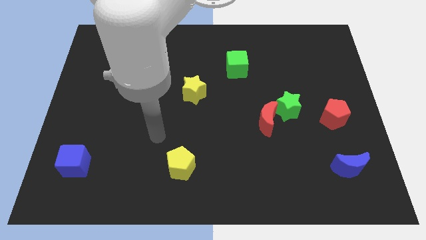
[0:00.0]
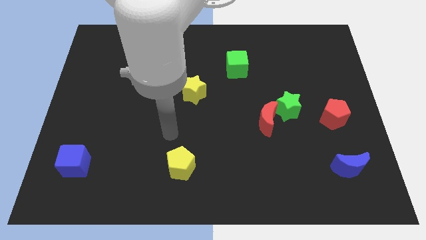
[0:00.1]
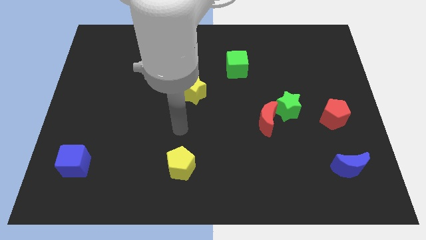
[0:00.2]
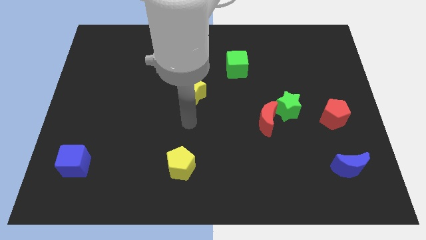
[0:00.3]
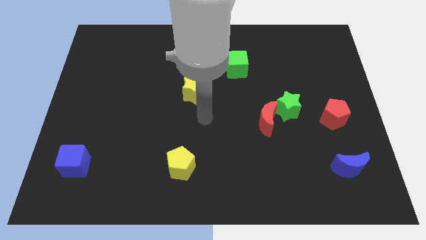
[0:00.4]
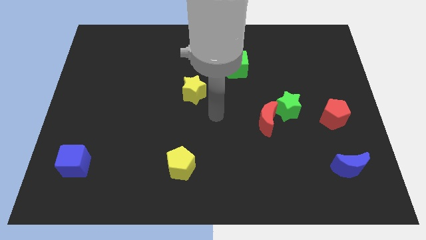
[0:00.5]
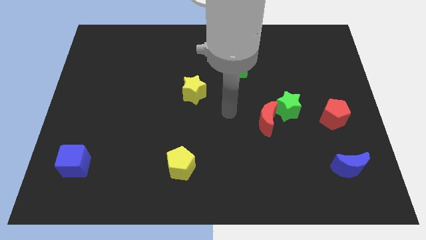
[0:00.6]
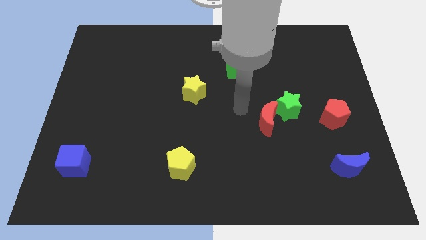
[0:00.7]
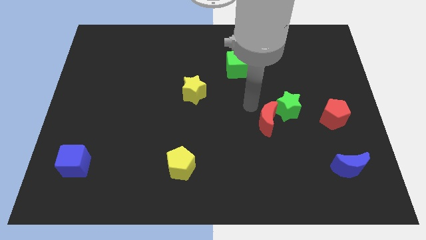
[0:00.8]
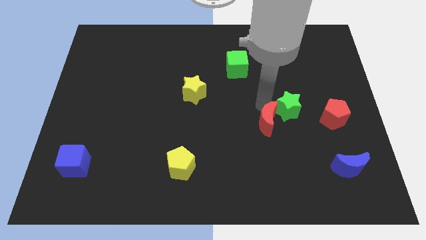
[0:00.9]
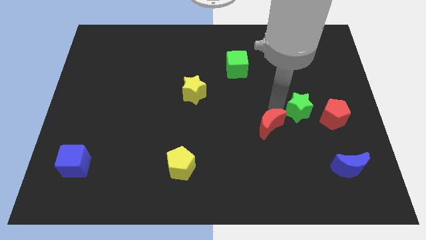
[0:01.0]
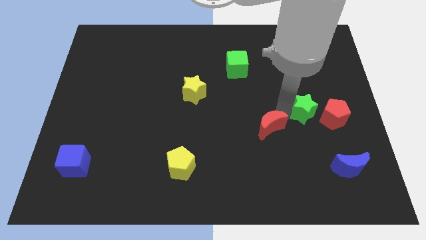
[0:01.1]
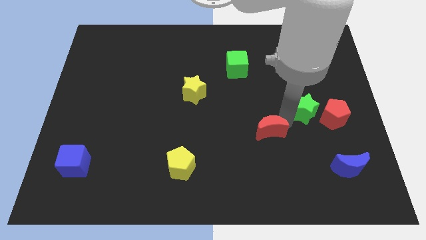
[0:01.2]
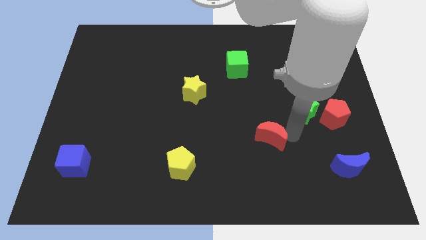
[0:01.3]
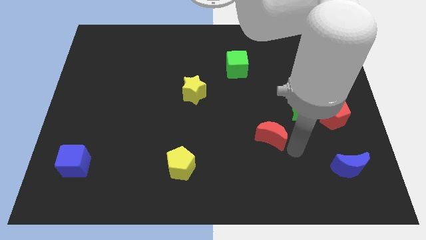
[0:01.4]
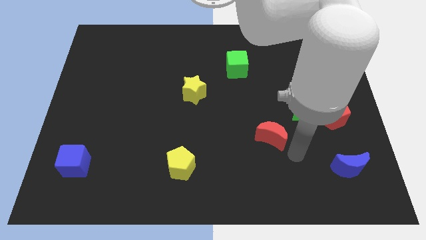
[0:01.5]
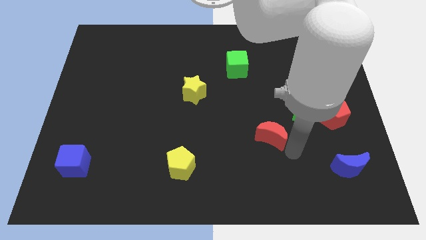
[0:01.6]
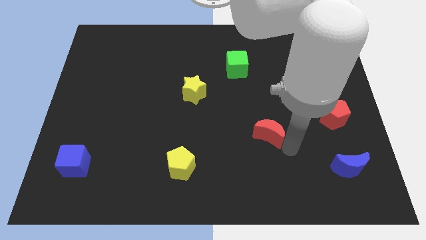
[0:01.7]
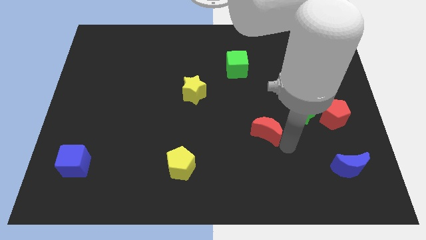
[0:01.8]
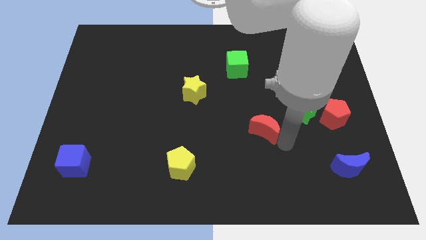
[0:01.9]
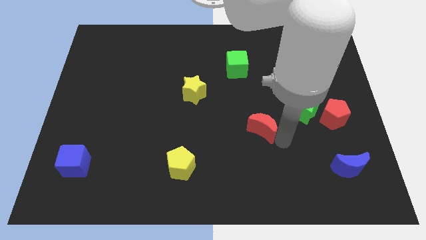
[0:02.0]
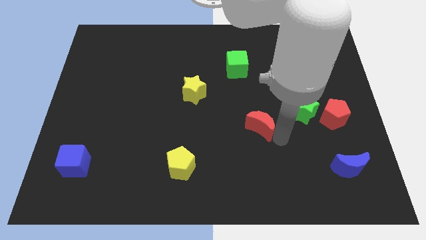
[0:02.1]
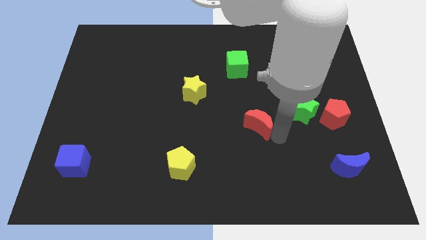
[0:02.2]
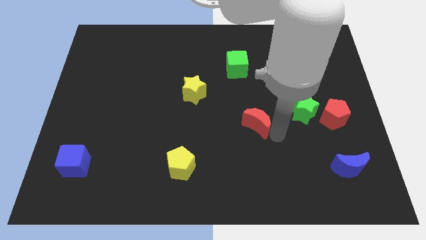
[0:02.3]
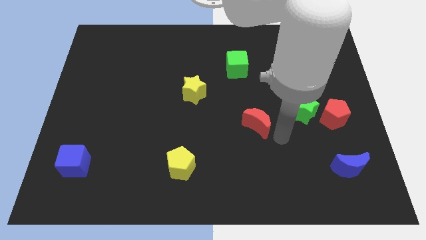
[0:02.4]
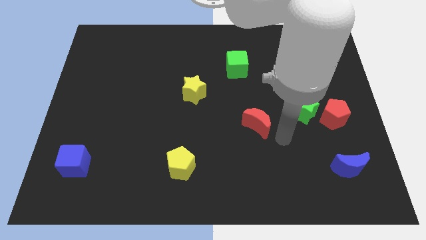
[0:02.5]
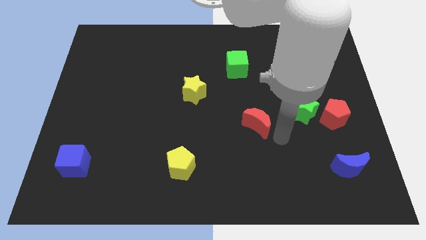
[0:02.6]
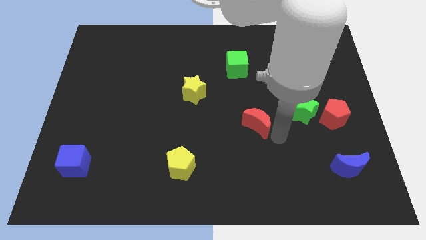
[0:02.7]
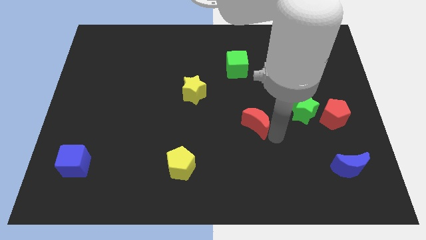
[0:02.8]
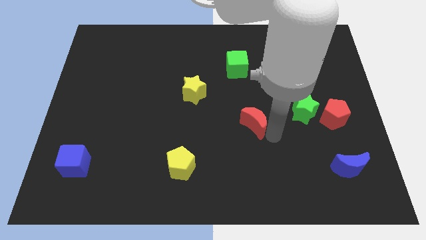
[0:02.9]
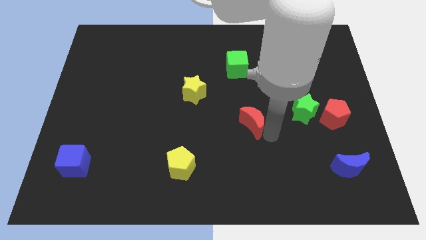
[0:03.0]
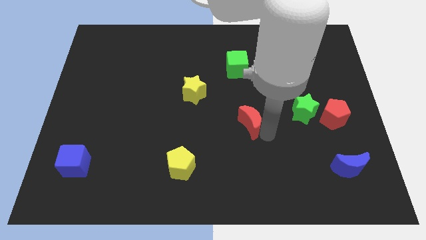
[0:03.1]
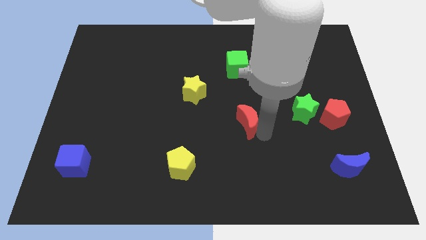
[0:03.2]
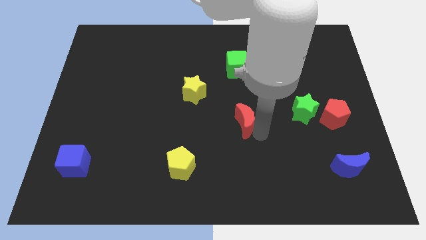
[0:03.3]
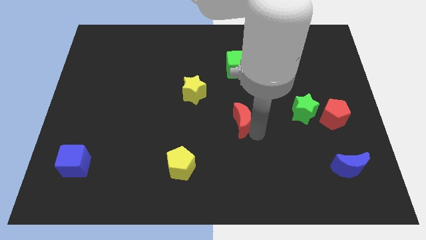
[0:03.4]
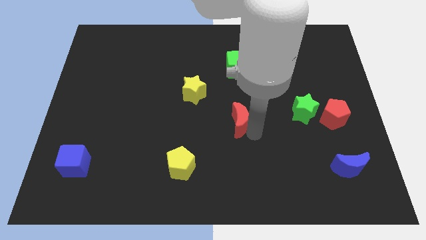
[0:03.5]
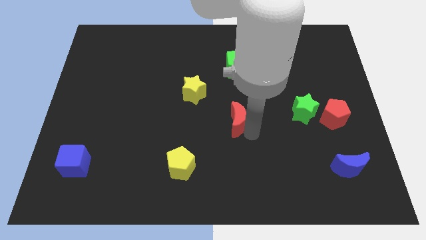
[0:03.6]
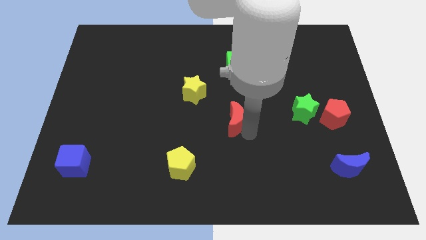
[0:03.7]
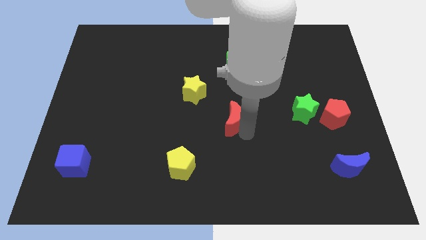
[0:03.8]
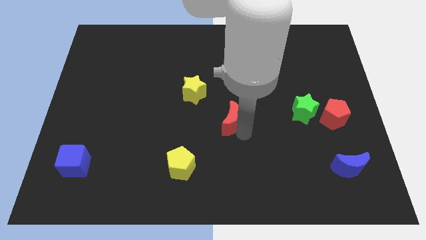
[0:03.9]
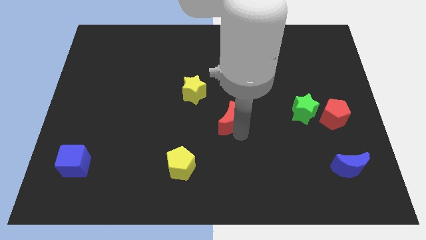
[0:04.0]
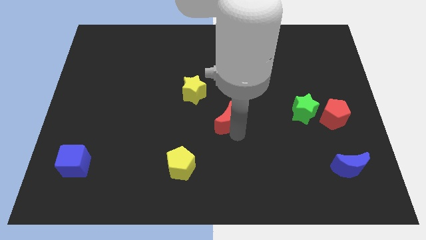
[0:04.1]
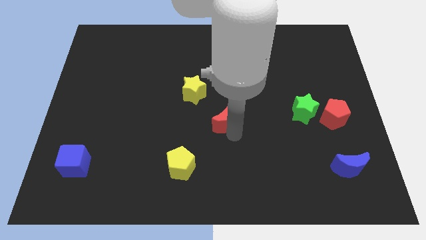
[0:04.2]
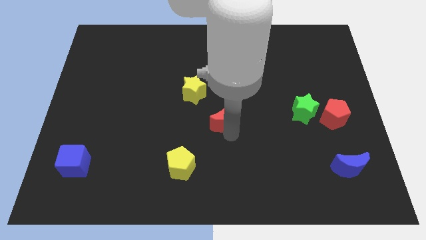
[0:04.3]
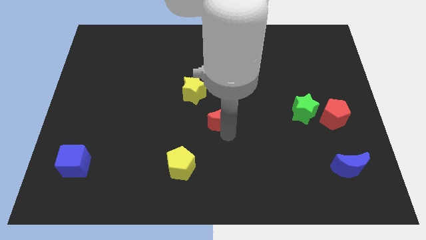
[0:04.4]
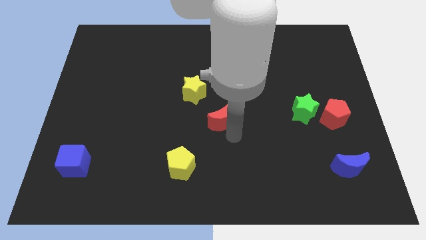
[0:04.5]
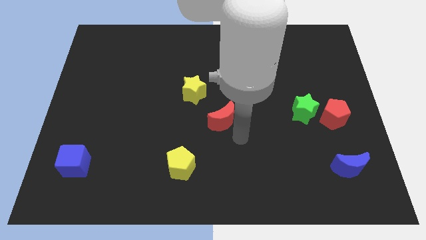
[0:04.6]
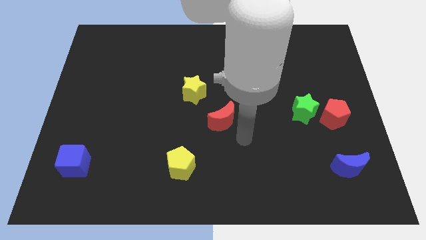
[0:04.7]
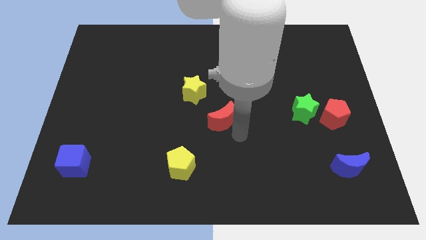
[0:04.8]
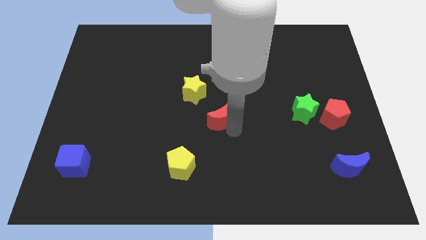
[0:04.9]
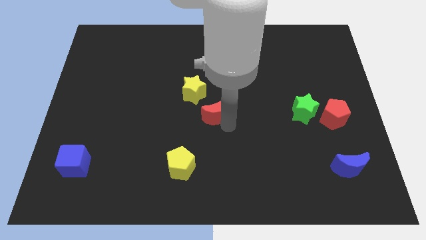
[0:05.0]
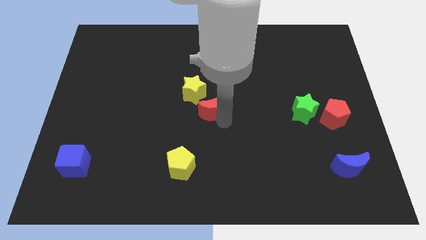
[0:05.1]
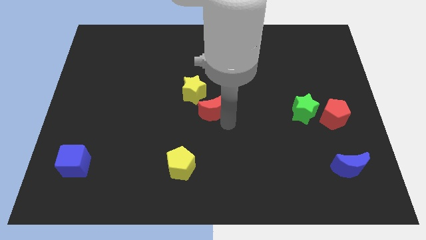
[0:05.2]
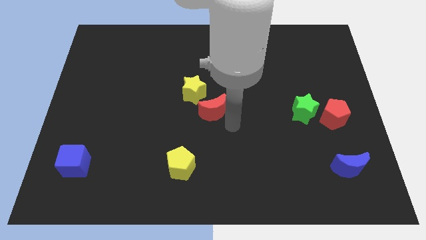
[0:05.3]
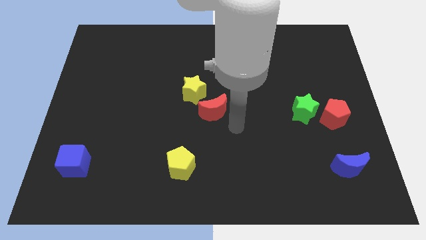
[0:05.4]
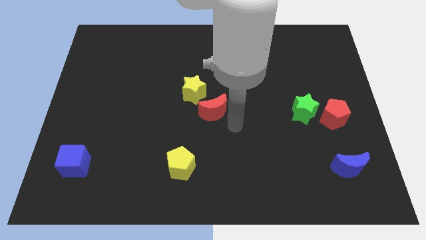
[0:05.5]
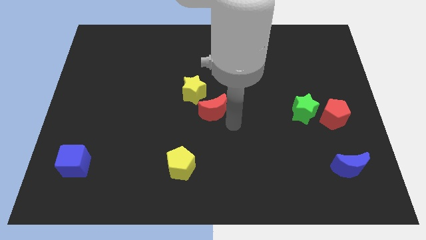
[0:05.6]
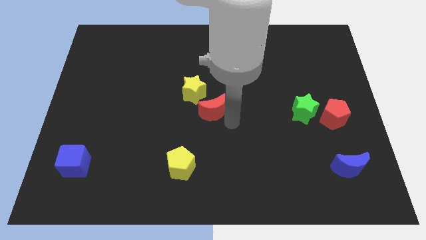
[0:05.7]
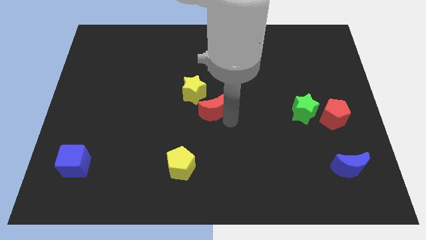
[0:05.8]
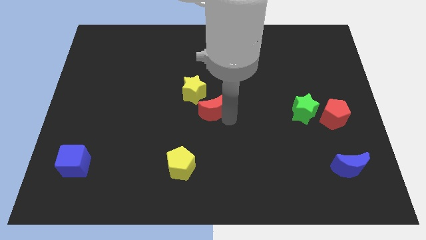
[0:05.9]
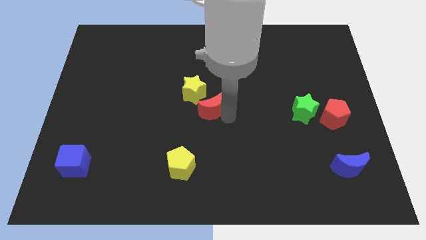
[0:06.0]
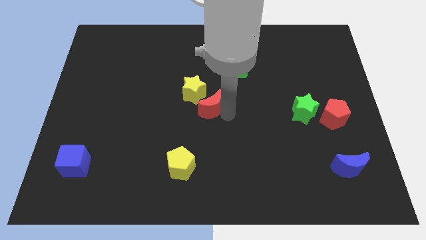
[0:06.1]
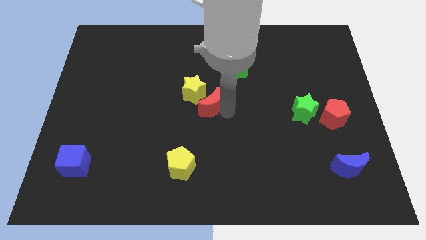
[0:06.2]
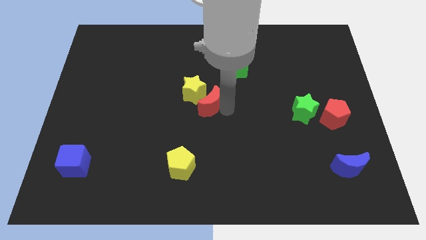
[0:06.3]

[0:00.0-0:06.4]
push the red moon close to the yellow star

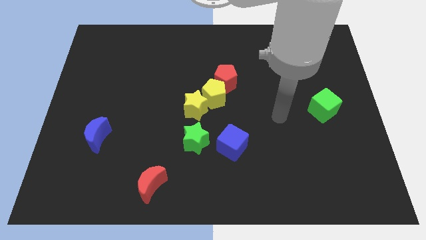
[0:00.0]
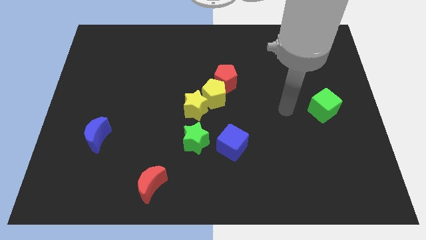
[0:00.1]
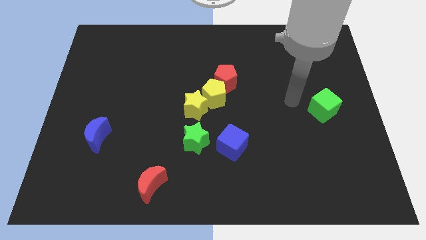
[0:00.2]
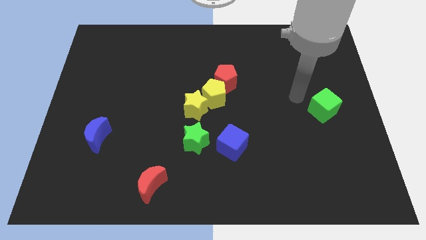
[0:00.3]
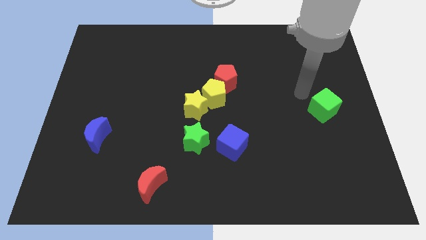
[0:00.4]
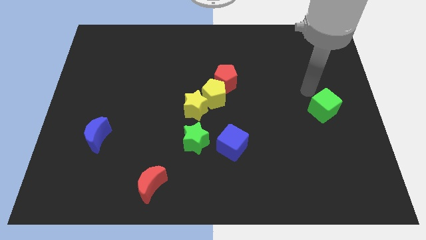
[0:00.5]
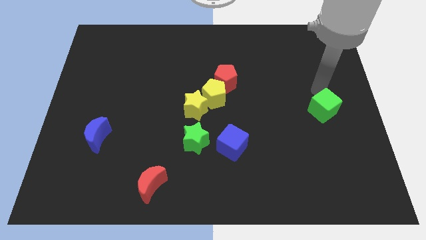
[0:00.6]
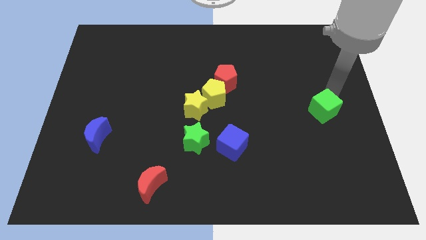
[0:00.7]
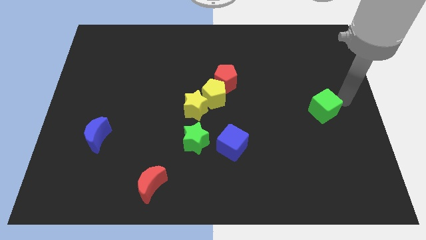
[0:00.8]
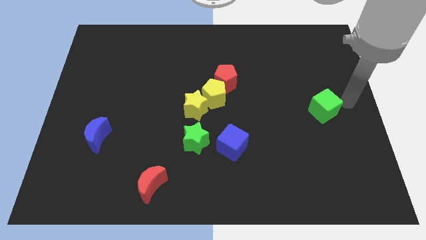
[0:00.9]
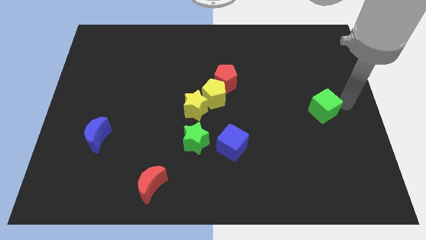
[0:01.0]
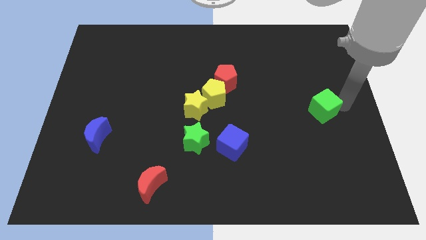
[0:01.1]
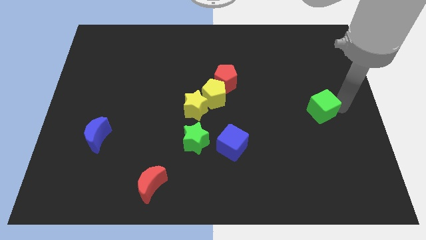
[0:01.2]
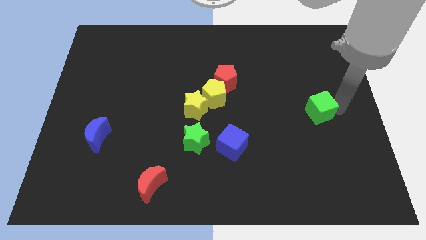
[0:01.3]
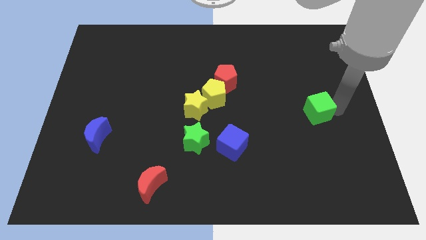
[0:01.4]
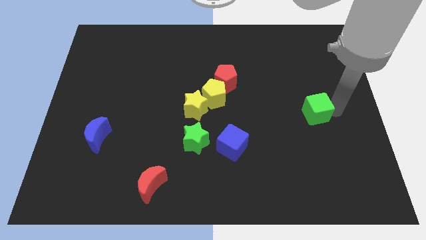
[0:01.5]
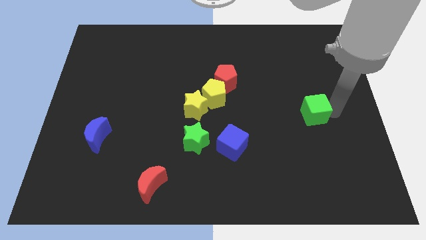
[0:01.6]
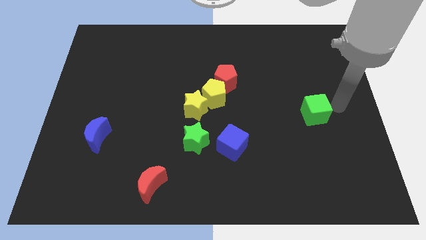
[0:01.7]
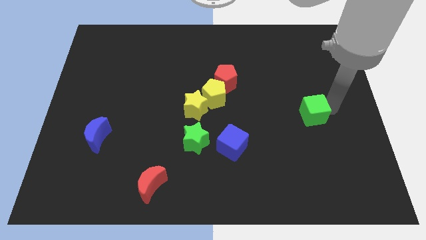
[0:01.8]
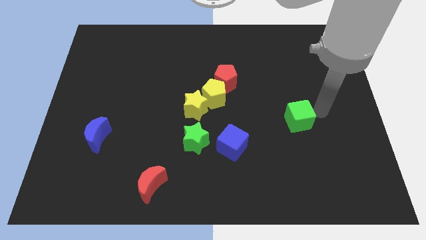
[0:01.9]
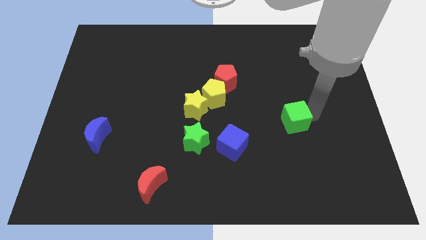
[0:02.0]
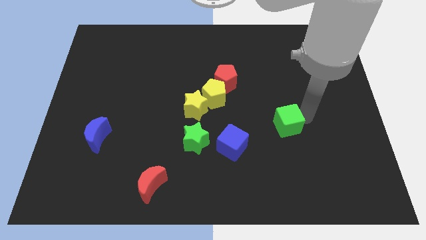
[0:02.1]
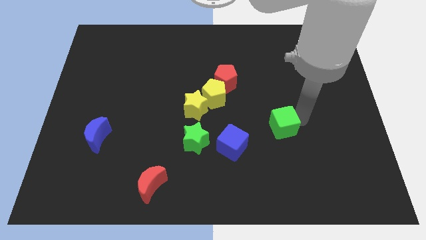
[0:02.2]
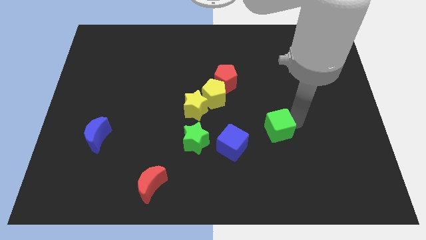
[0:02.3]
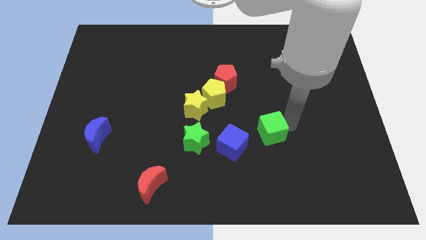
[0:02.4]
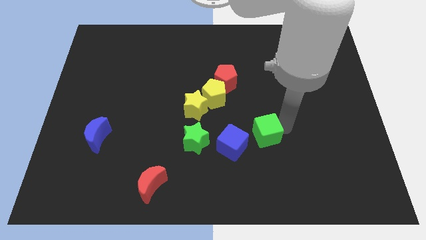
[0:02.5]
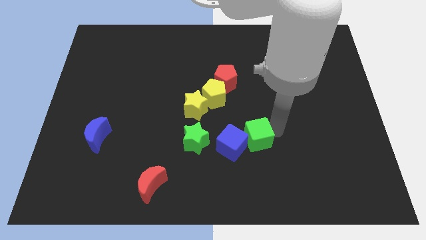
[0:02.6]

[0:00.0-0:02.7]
move the green cube to the blue cube
